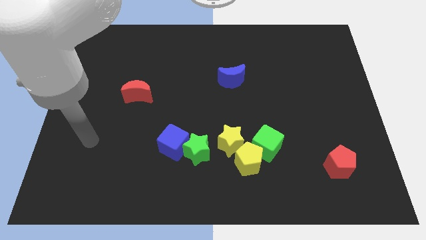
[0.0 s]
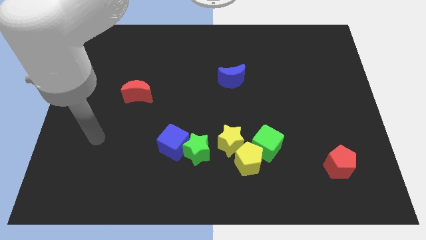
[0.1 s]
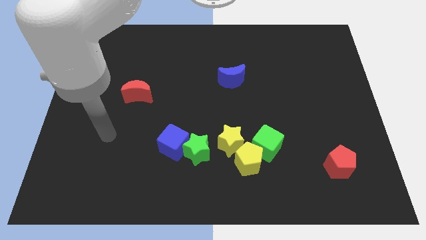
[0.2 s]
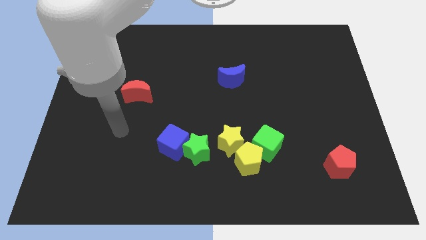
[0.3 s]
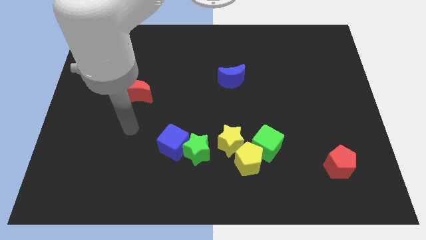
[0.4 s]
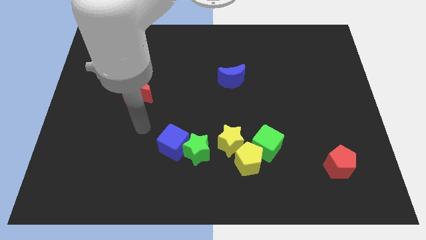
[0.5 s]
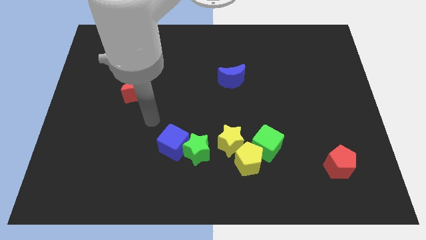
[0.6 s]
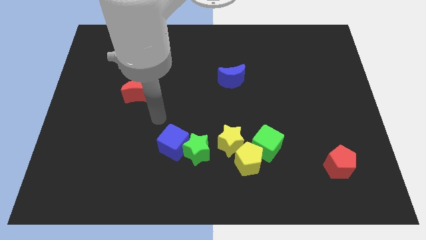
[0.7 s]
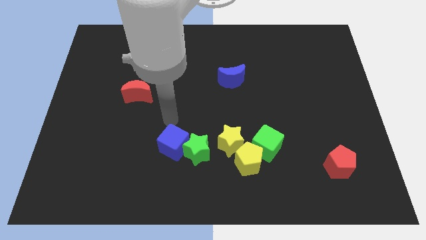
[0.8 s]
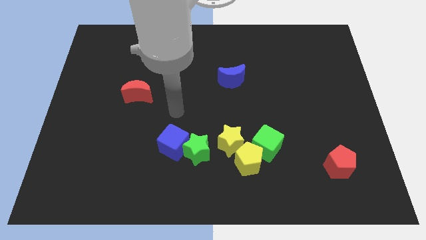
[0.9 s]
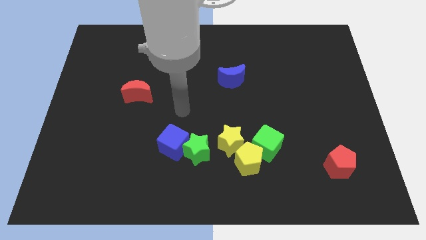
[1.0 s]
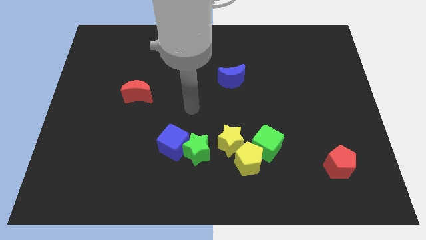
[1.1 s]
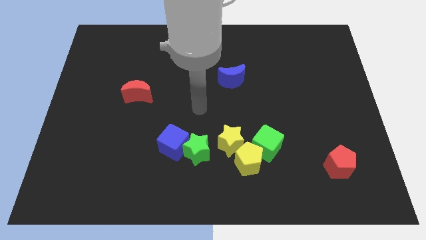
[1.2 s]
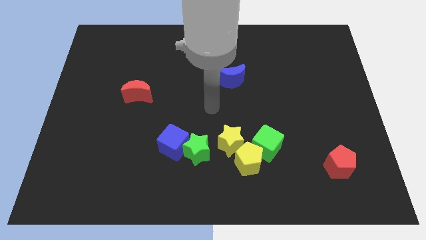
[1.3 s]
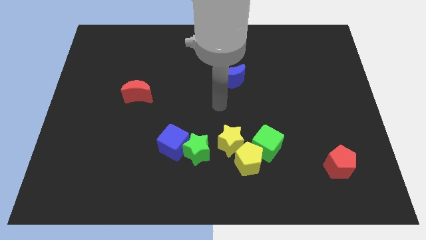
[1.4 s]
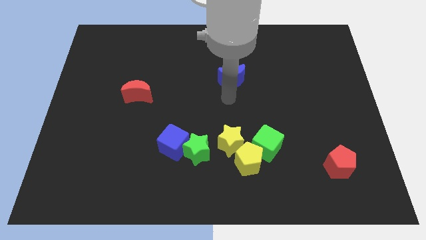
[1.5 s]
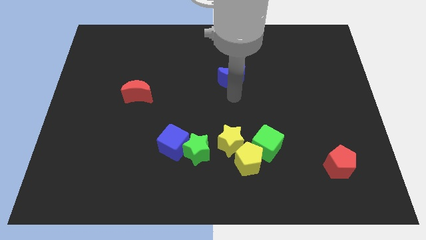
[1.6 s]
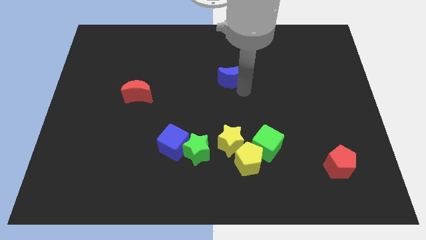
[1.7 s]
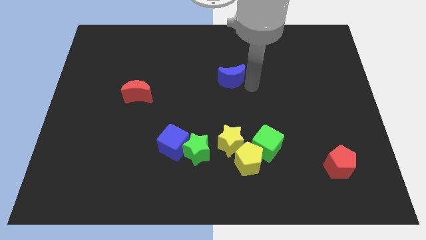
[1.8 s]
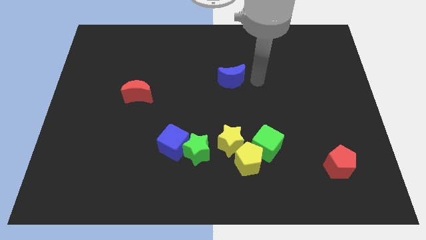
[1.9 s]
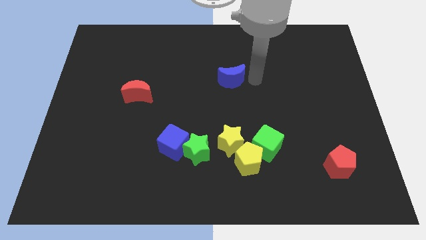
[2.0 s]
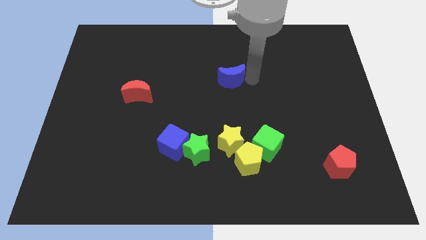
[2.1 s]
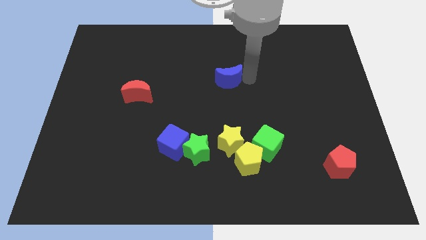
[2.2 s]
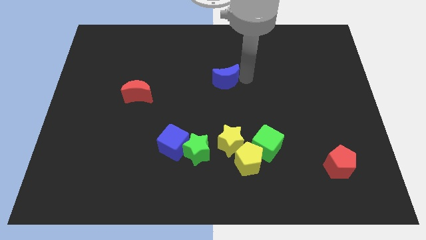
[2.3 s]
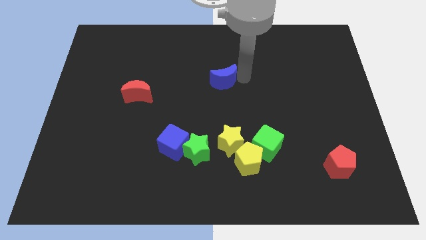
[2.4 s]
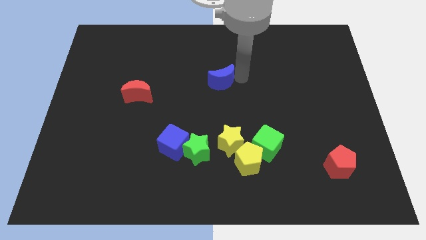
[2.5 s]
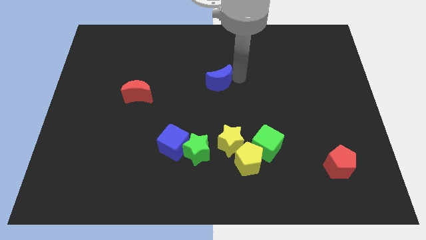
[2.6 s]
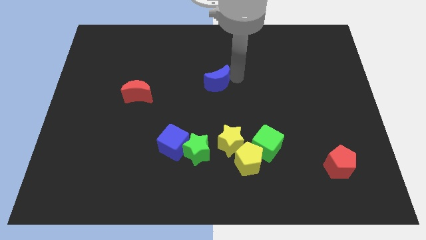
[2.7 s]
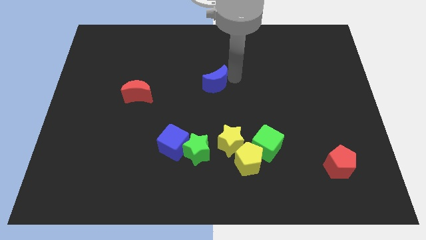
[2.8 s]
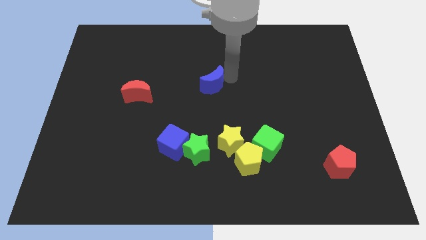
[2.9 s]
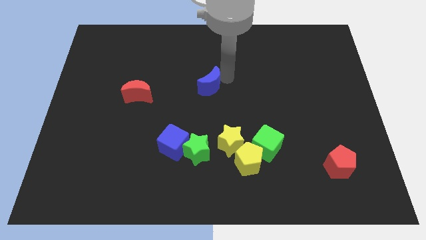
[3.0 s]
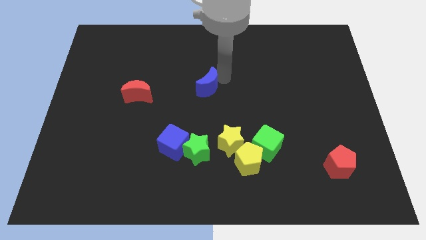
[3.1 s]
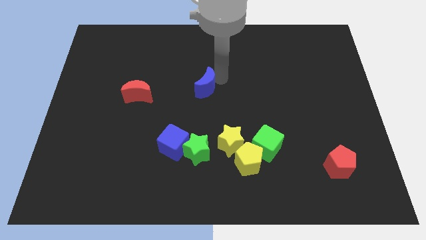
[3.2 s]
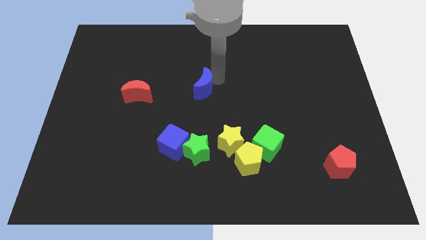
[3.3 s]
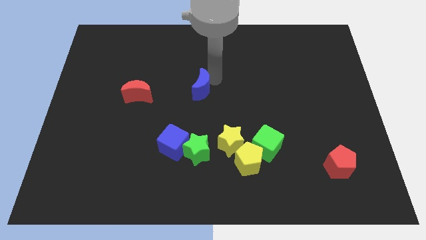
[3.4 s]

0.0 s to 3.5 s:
push the blue moon to the left a bit

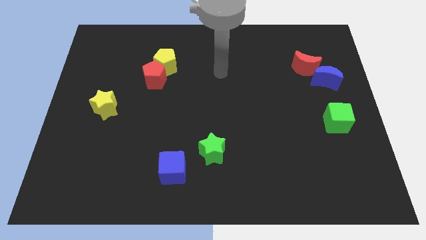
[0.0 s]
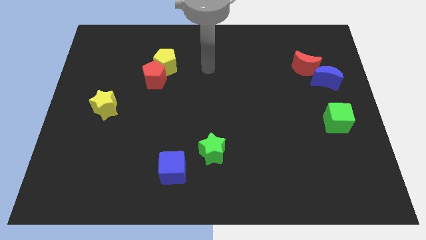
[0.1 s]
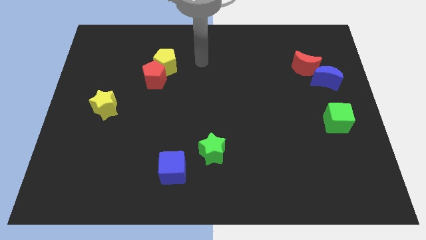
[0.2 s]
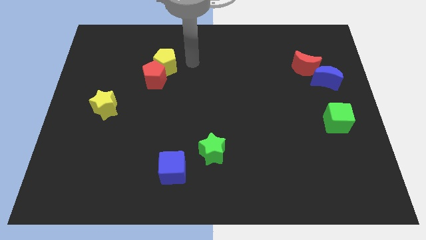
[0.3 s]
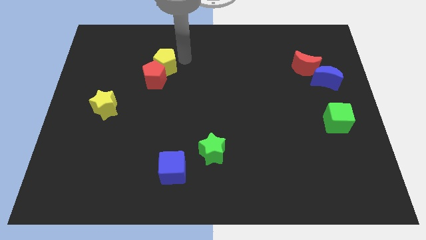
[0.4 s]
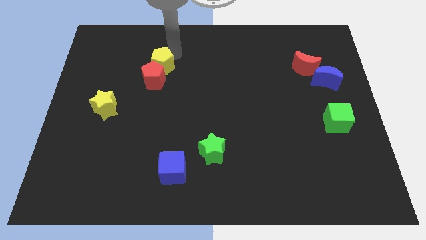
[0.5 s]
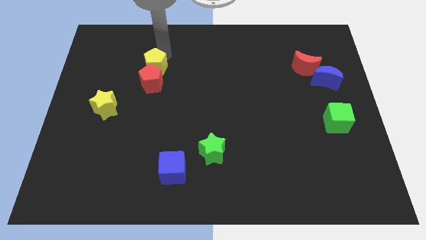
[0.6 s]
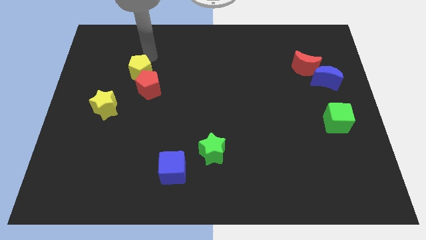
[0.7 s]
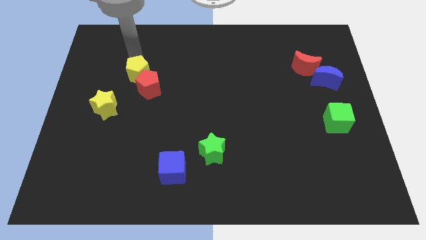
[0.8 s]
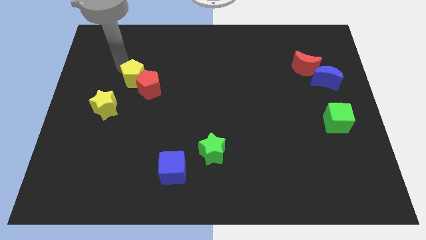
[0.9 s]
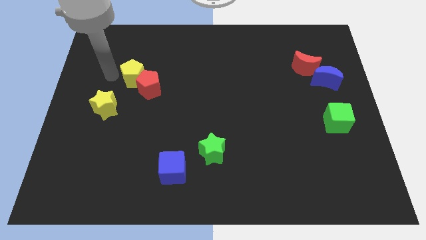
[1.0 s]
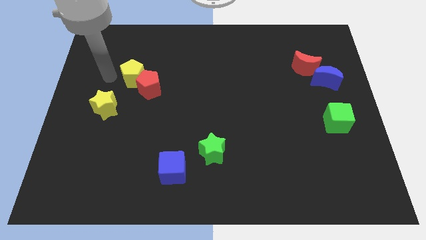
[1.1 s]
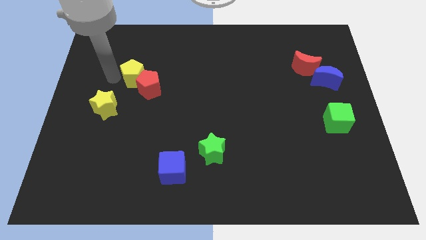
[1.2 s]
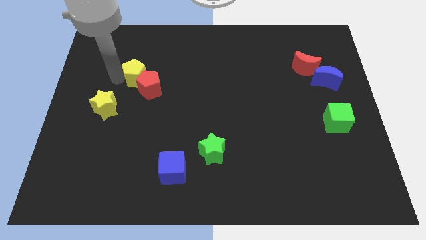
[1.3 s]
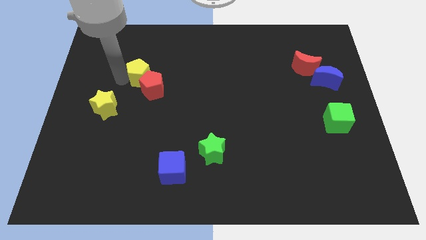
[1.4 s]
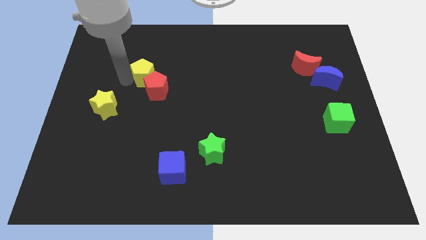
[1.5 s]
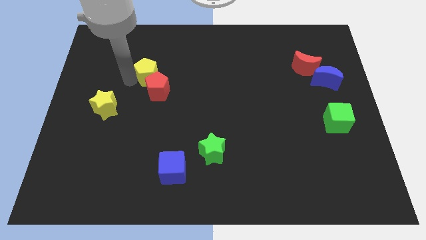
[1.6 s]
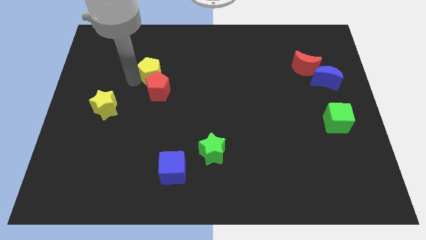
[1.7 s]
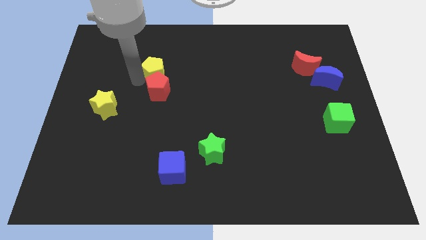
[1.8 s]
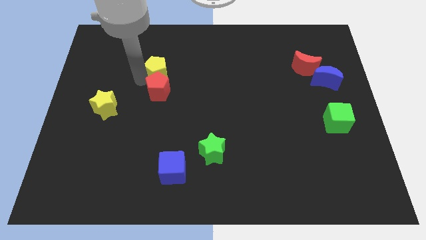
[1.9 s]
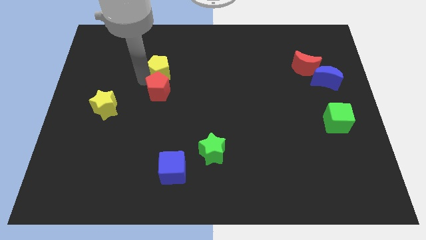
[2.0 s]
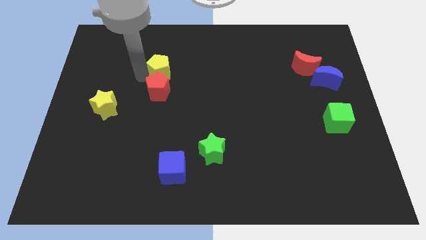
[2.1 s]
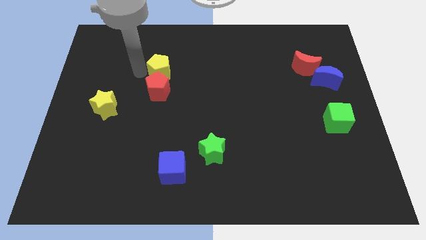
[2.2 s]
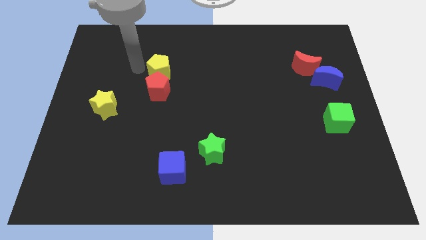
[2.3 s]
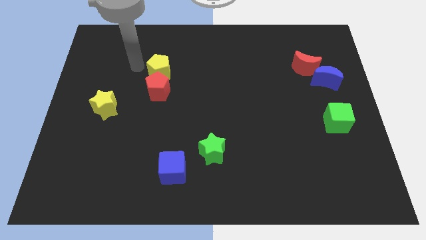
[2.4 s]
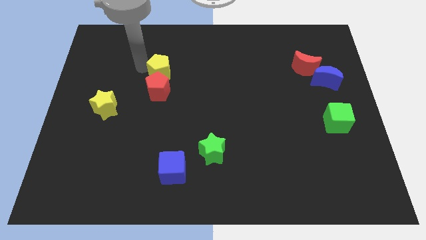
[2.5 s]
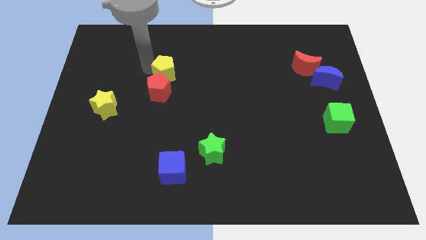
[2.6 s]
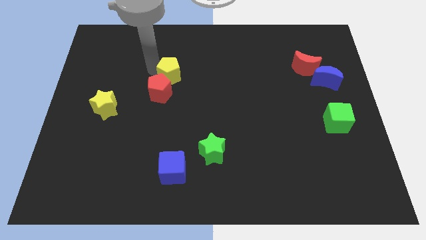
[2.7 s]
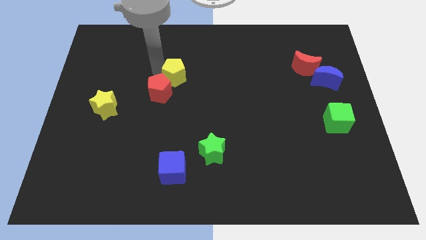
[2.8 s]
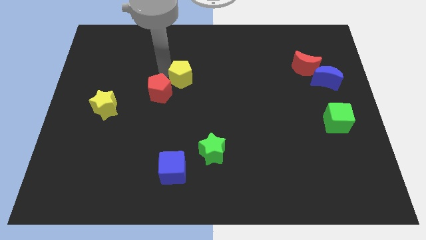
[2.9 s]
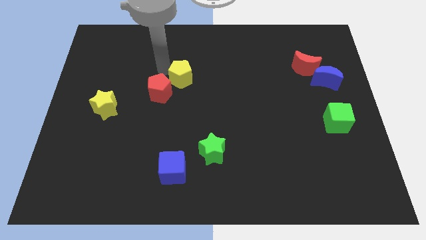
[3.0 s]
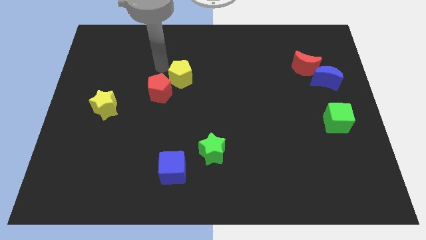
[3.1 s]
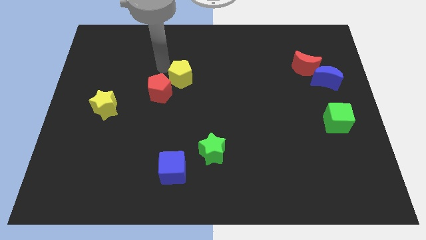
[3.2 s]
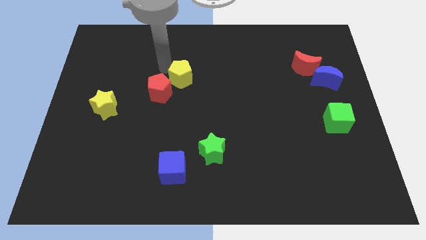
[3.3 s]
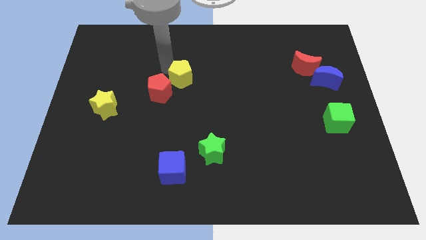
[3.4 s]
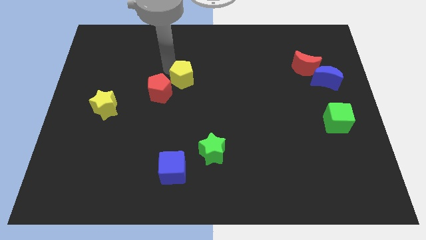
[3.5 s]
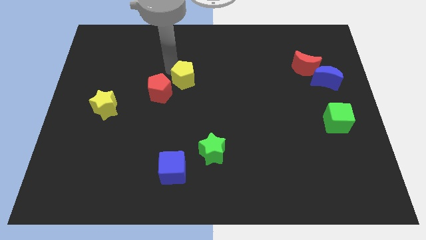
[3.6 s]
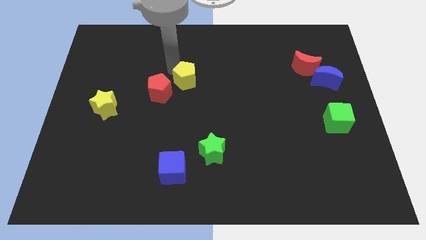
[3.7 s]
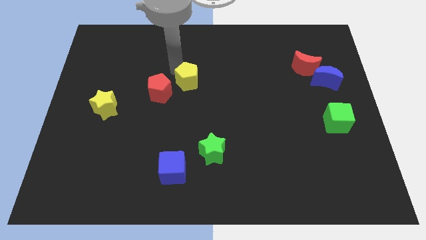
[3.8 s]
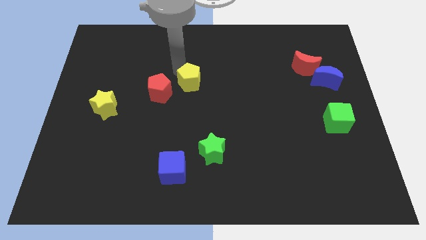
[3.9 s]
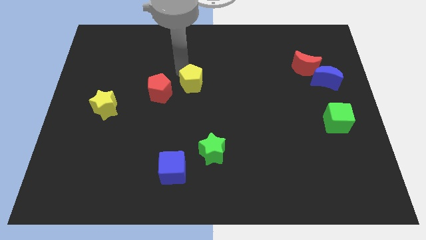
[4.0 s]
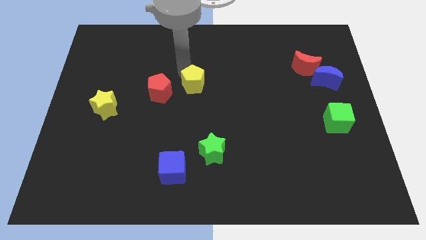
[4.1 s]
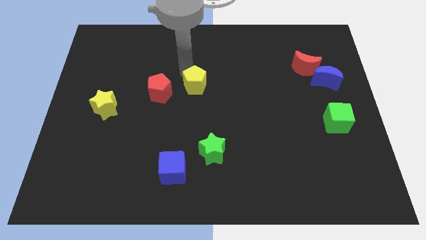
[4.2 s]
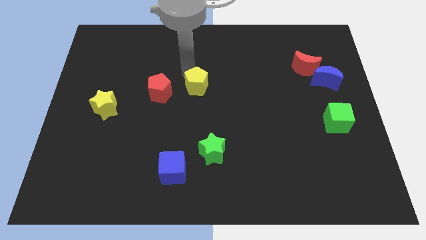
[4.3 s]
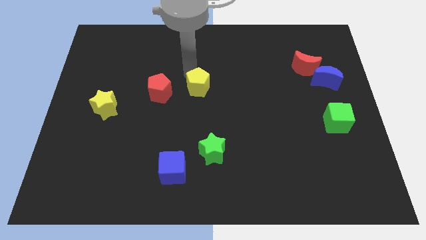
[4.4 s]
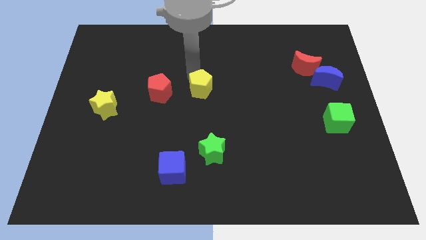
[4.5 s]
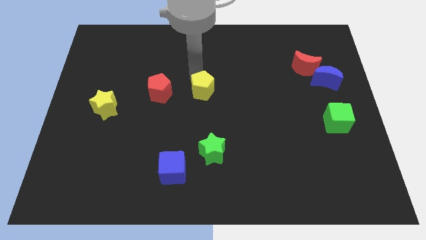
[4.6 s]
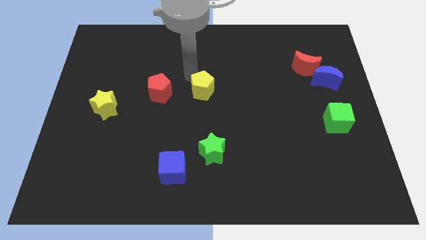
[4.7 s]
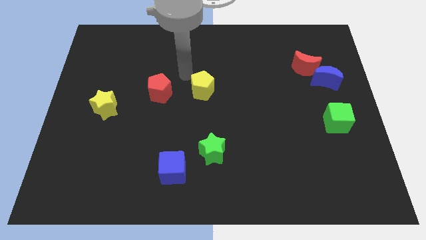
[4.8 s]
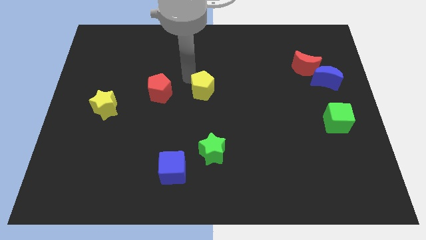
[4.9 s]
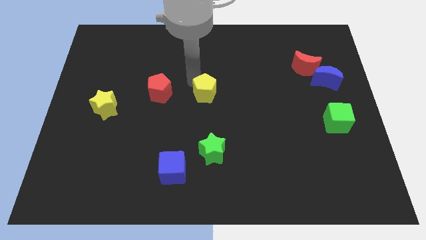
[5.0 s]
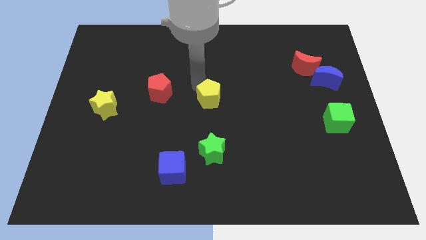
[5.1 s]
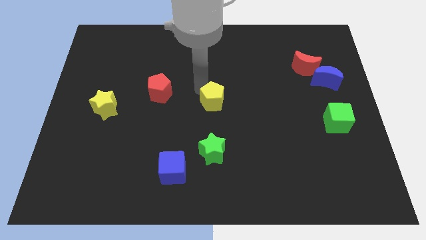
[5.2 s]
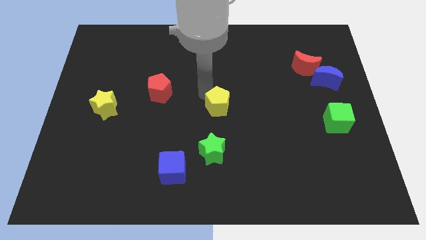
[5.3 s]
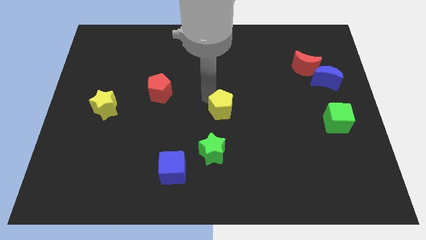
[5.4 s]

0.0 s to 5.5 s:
slide the yellow pentagon downwards and then to the right
